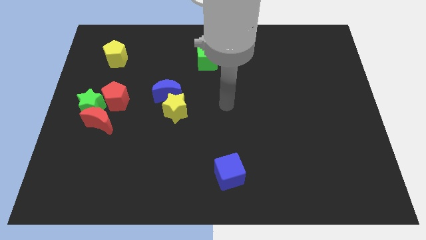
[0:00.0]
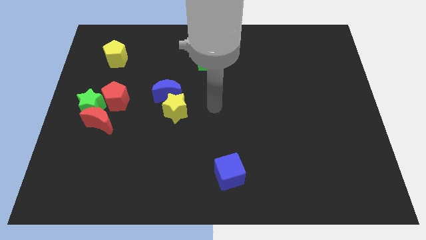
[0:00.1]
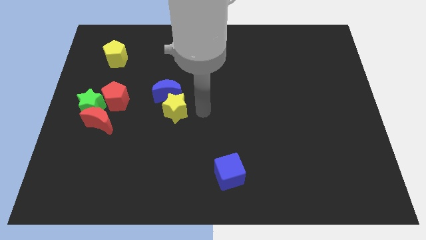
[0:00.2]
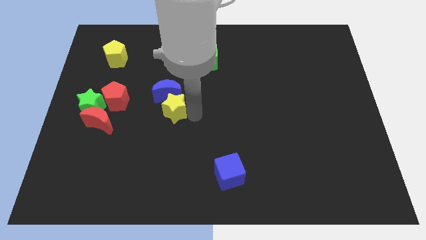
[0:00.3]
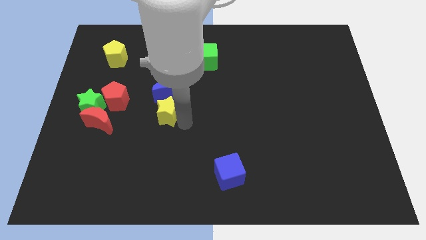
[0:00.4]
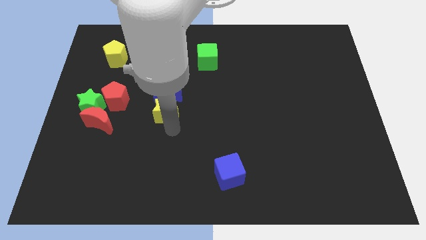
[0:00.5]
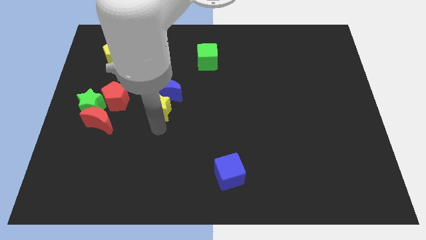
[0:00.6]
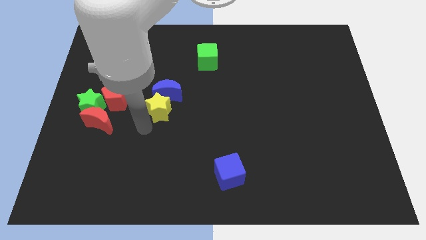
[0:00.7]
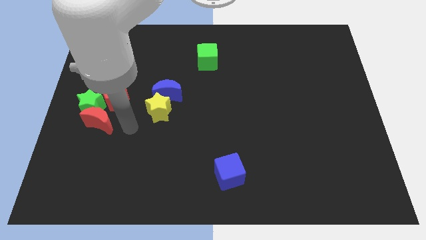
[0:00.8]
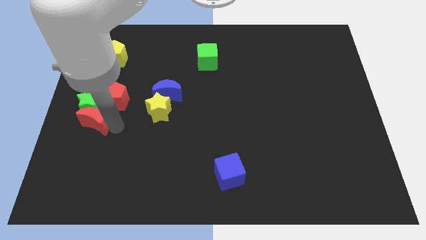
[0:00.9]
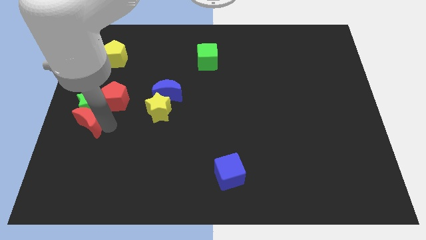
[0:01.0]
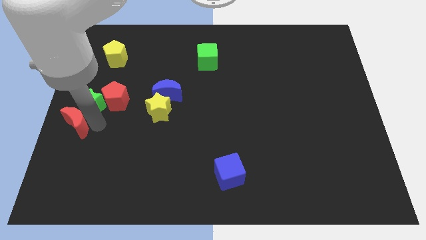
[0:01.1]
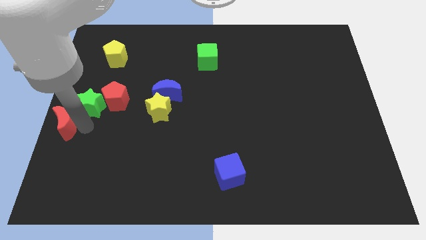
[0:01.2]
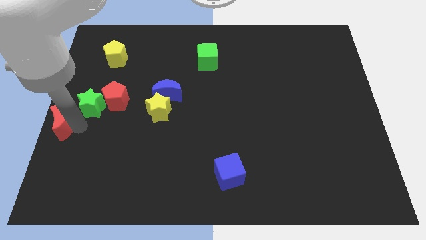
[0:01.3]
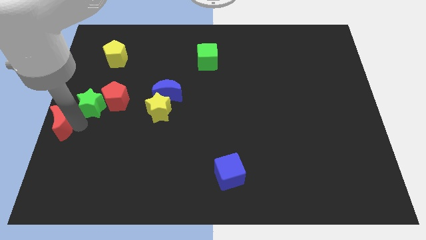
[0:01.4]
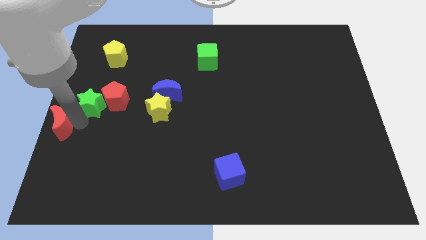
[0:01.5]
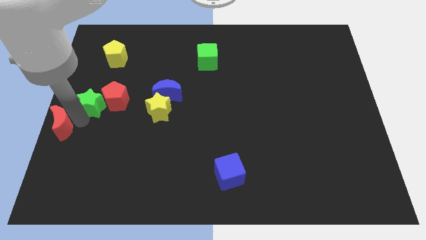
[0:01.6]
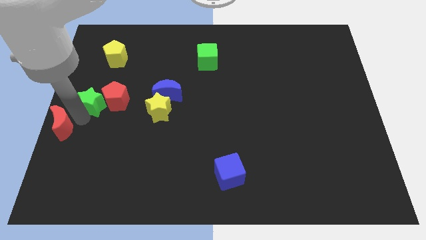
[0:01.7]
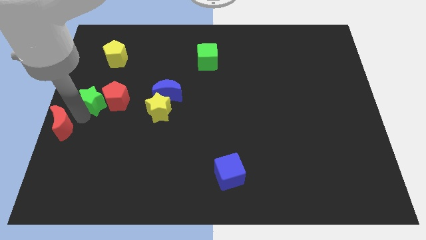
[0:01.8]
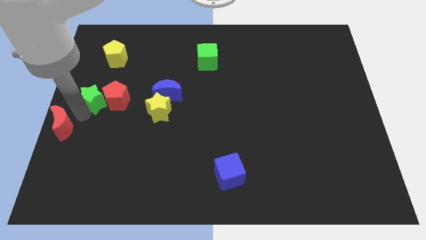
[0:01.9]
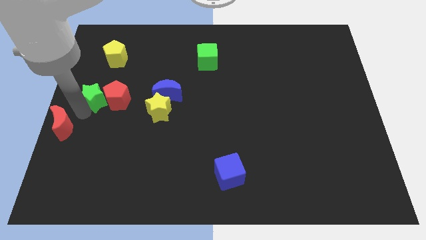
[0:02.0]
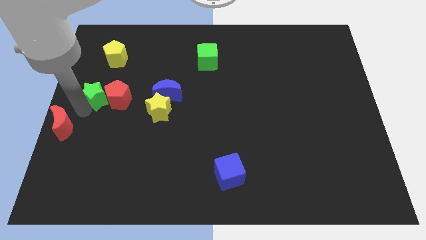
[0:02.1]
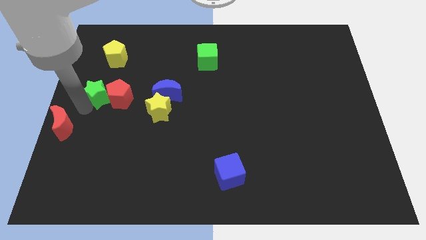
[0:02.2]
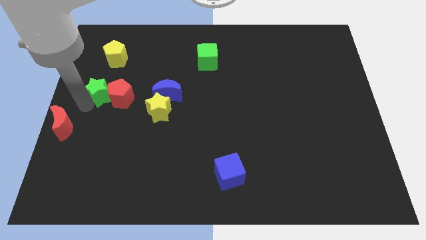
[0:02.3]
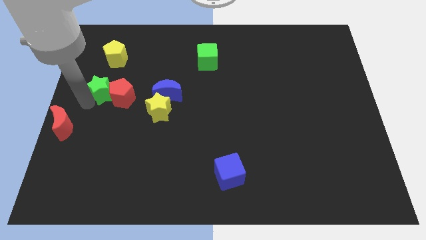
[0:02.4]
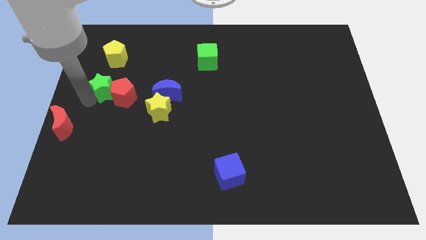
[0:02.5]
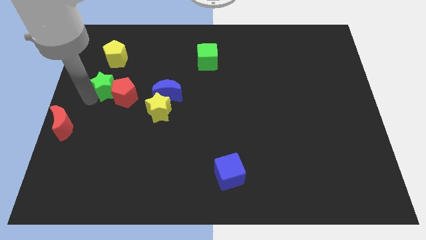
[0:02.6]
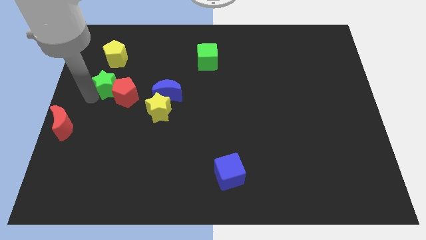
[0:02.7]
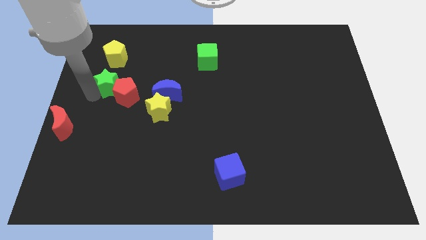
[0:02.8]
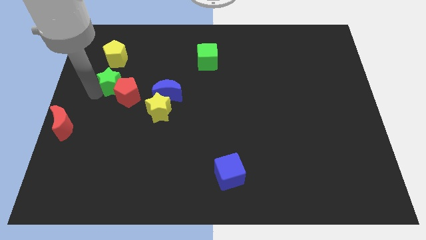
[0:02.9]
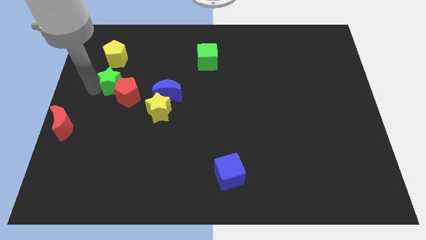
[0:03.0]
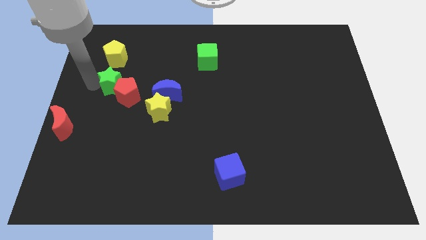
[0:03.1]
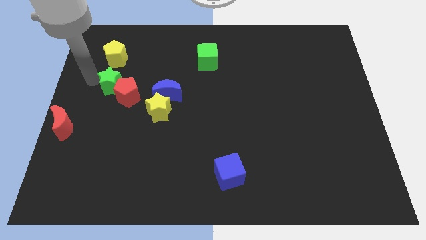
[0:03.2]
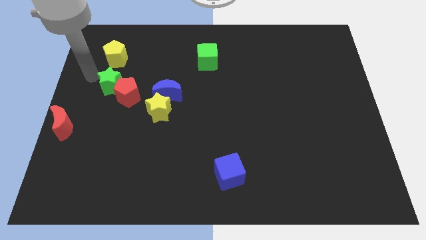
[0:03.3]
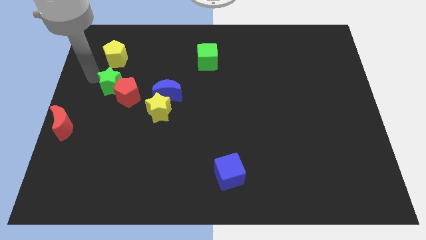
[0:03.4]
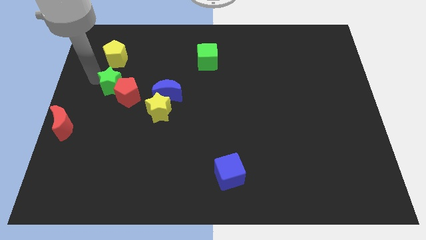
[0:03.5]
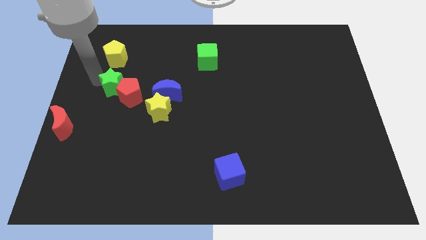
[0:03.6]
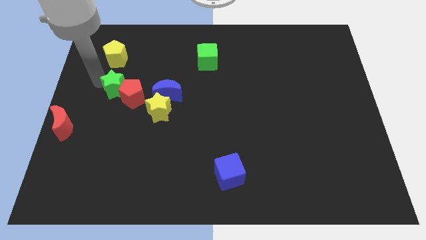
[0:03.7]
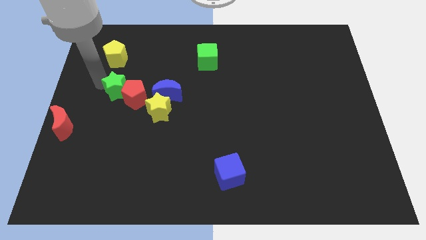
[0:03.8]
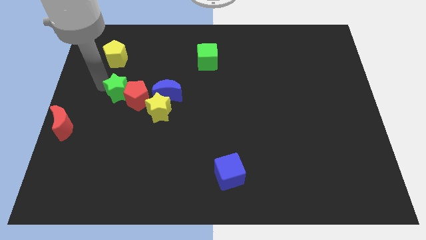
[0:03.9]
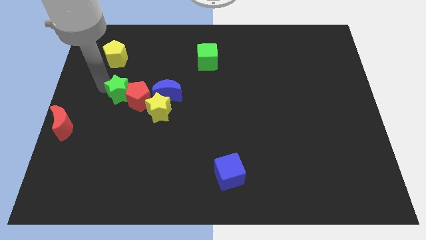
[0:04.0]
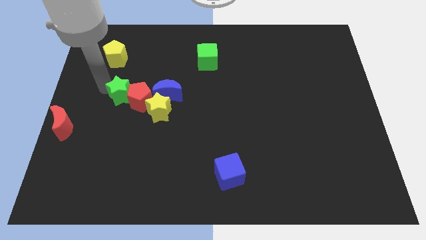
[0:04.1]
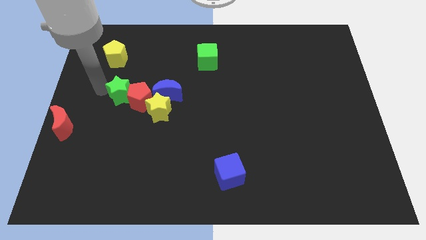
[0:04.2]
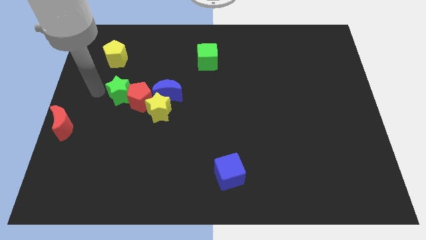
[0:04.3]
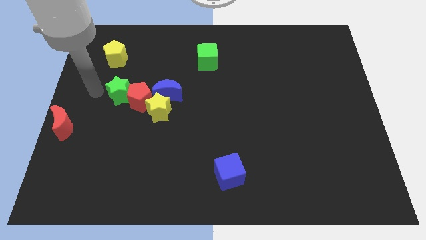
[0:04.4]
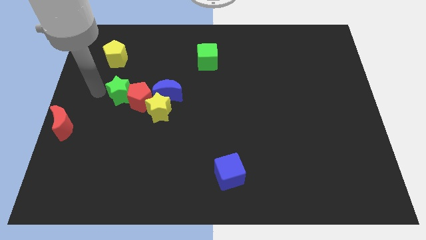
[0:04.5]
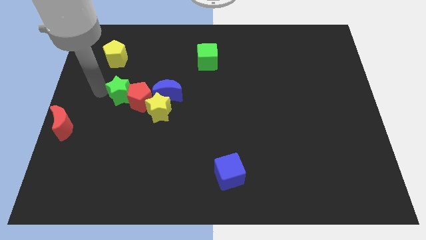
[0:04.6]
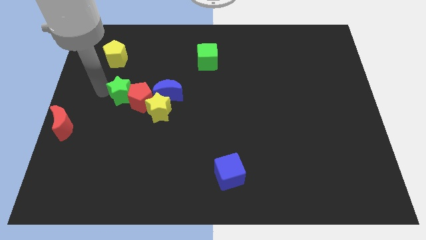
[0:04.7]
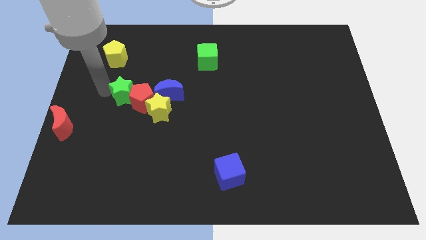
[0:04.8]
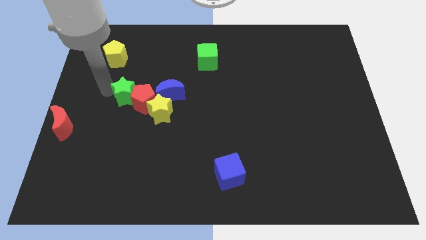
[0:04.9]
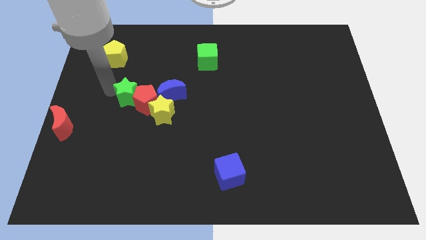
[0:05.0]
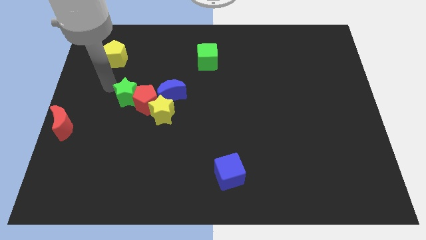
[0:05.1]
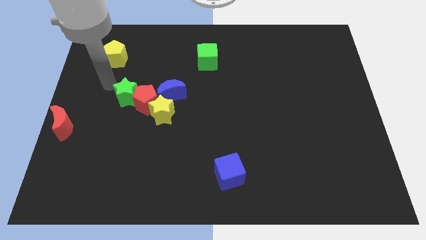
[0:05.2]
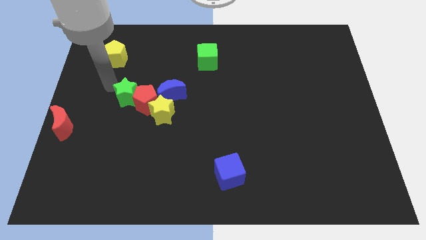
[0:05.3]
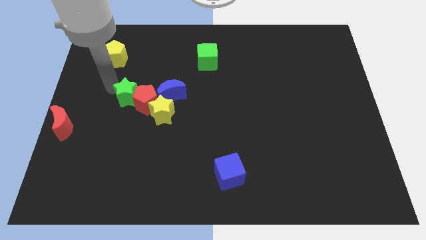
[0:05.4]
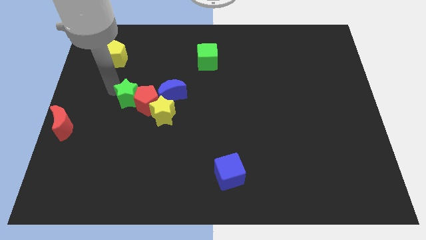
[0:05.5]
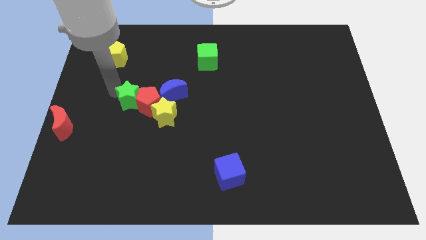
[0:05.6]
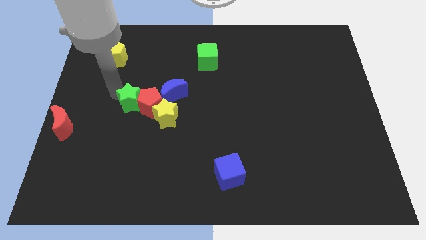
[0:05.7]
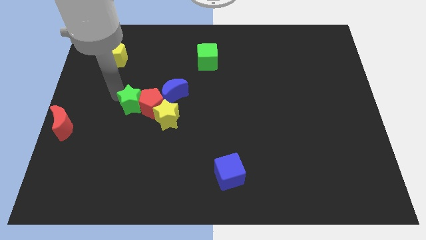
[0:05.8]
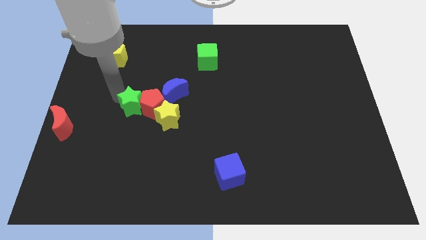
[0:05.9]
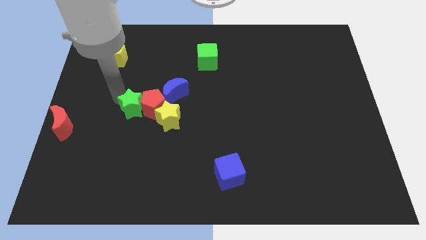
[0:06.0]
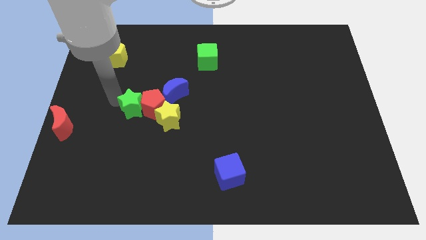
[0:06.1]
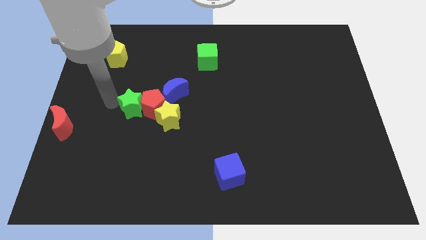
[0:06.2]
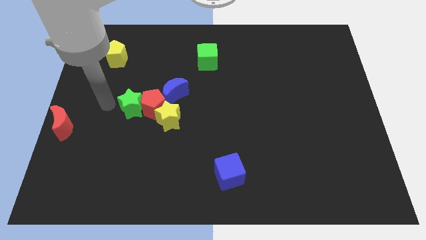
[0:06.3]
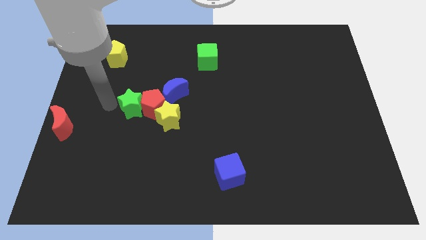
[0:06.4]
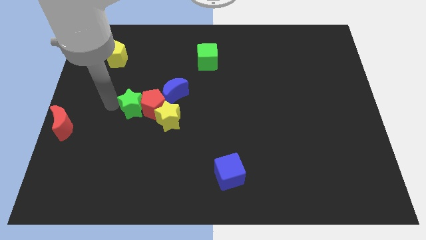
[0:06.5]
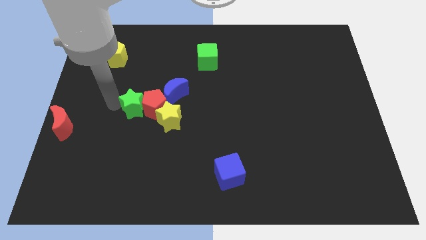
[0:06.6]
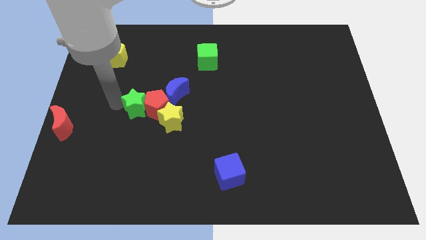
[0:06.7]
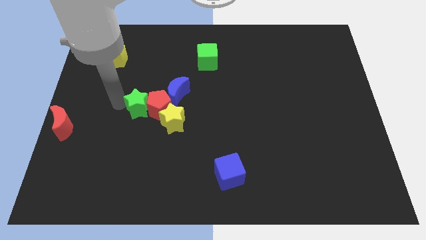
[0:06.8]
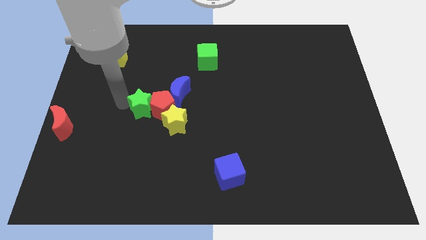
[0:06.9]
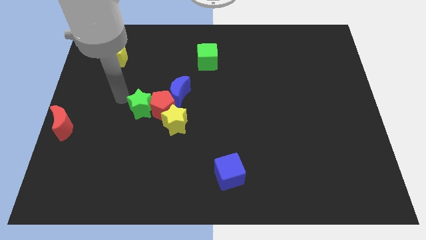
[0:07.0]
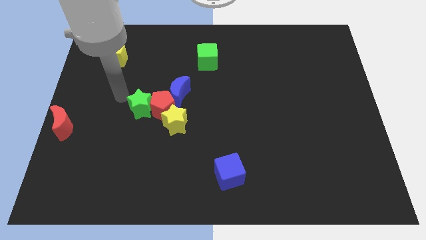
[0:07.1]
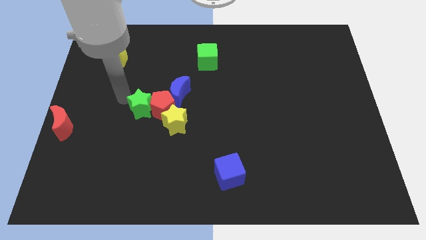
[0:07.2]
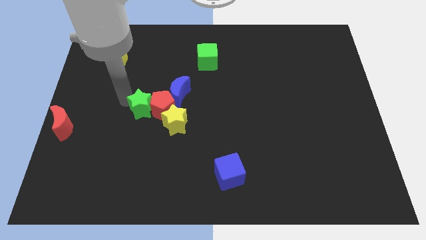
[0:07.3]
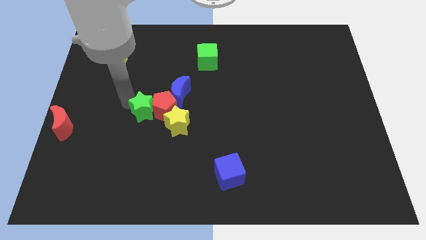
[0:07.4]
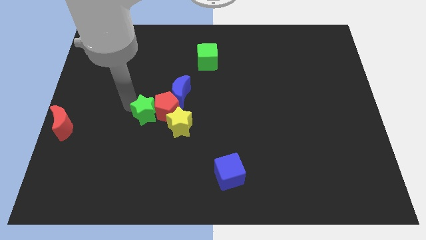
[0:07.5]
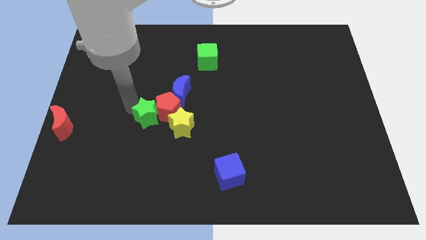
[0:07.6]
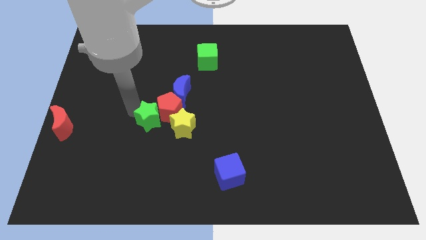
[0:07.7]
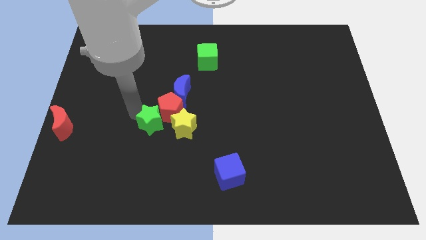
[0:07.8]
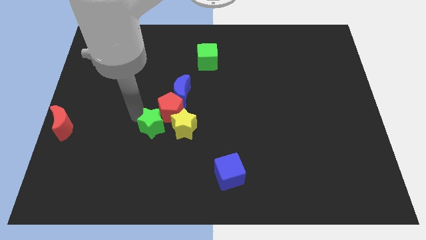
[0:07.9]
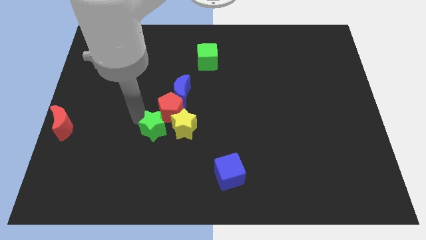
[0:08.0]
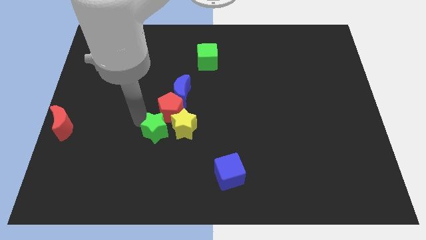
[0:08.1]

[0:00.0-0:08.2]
move the green star next to the yellow star
